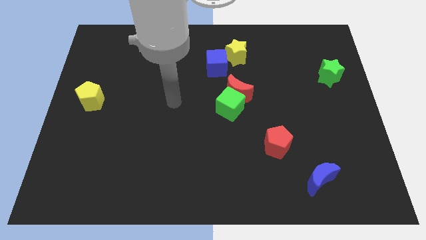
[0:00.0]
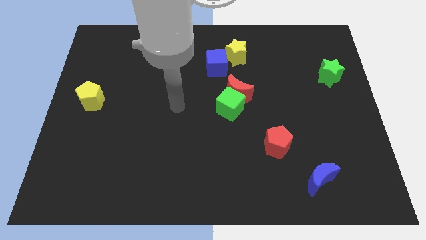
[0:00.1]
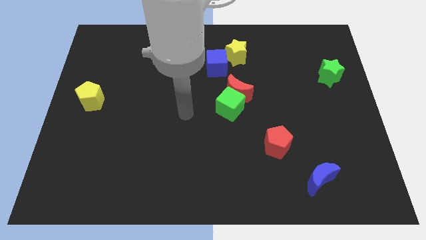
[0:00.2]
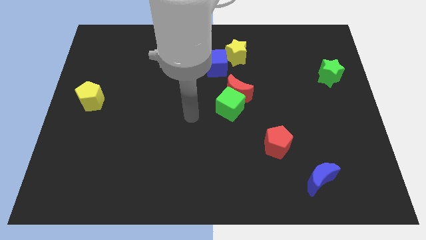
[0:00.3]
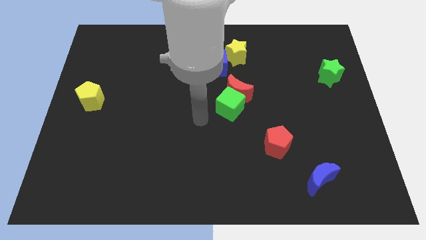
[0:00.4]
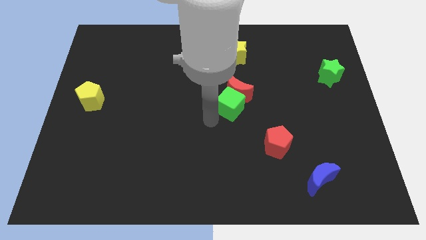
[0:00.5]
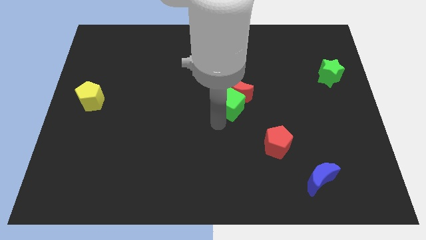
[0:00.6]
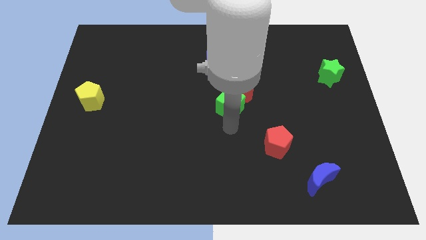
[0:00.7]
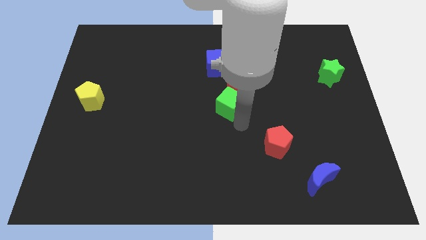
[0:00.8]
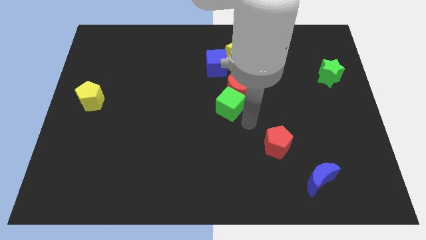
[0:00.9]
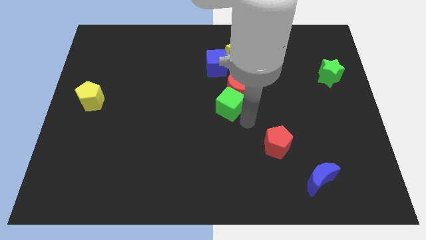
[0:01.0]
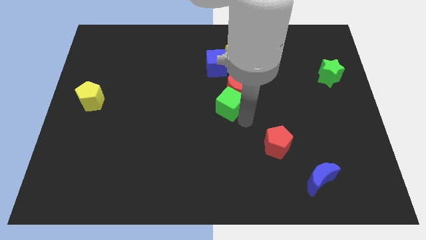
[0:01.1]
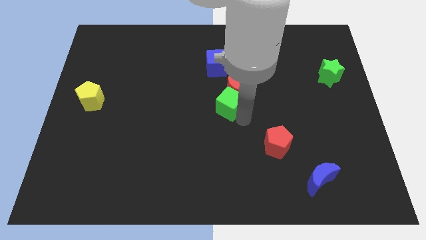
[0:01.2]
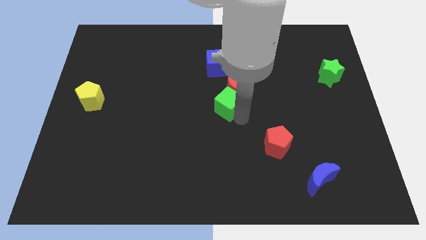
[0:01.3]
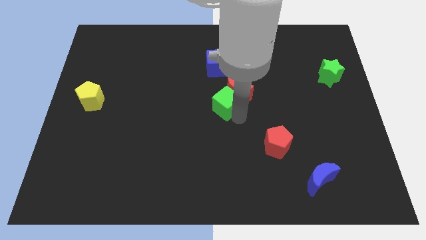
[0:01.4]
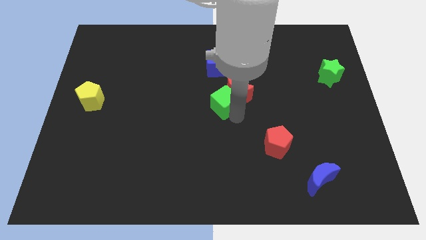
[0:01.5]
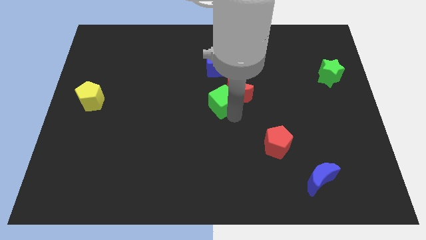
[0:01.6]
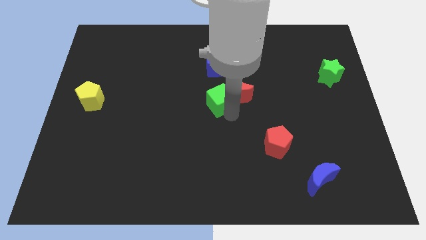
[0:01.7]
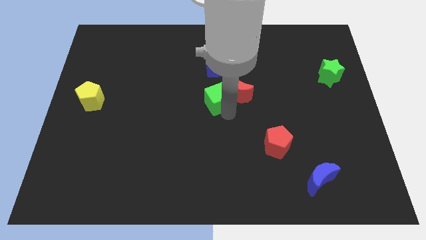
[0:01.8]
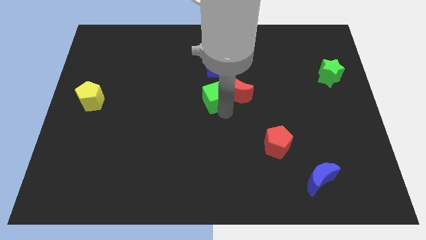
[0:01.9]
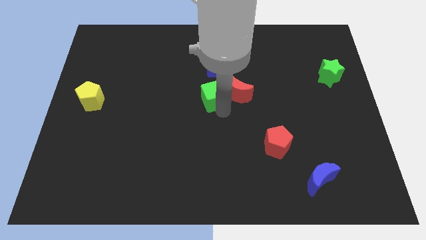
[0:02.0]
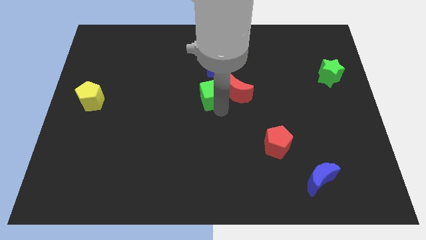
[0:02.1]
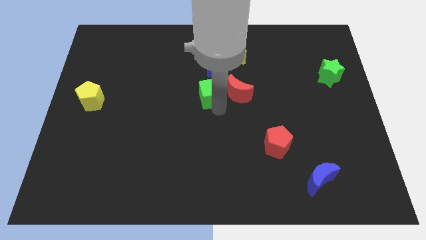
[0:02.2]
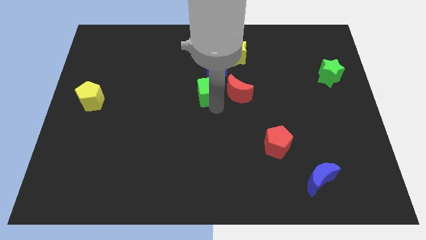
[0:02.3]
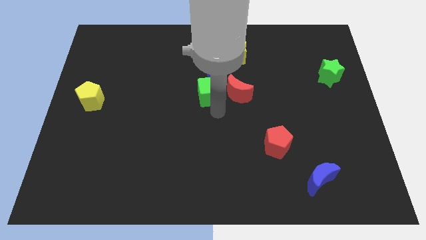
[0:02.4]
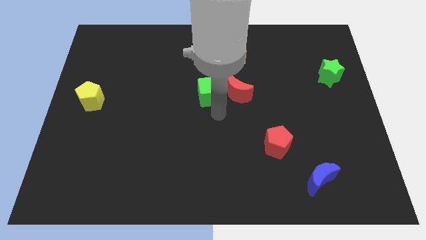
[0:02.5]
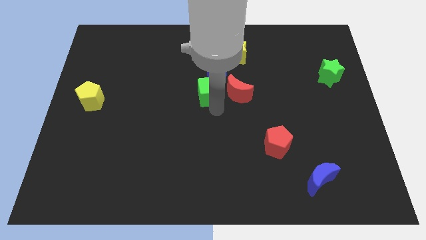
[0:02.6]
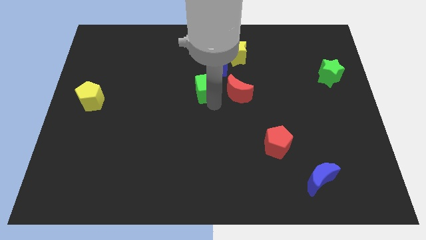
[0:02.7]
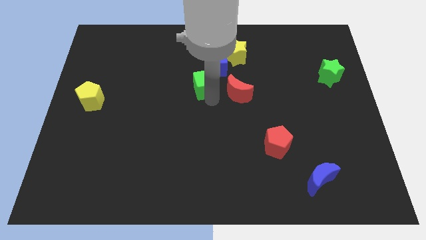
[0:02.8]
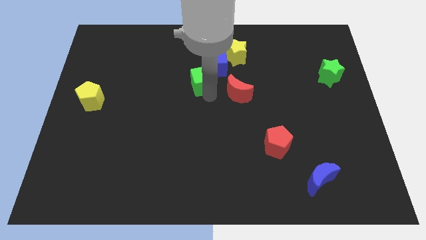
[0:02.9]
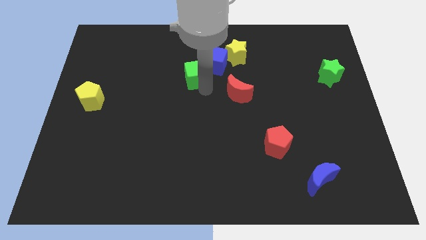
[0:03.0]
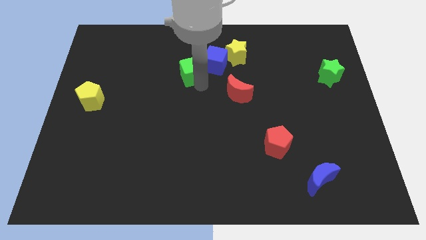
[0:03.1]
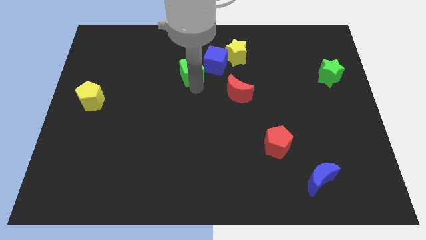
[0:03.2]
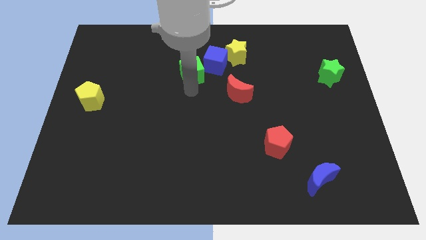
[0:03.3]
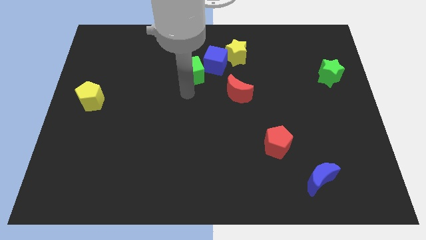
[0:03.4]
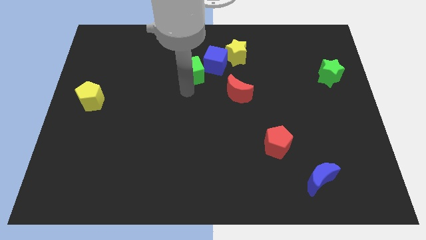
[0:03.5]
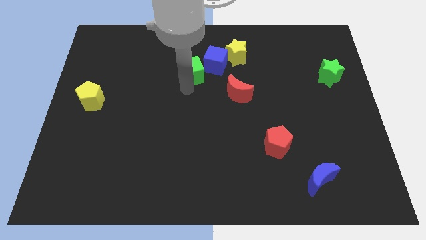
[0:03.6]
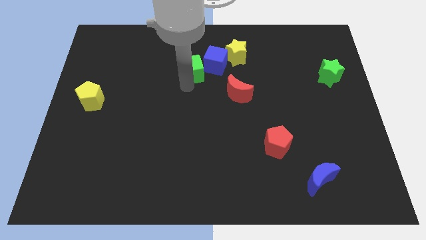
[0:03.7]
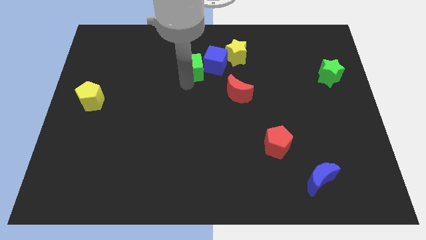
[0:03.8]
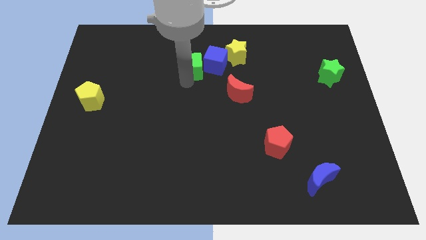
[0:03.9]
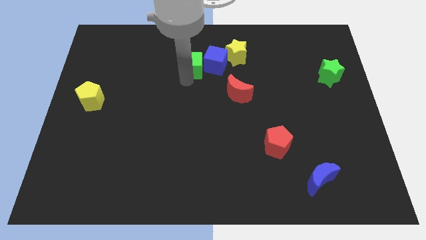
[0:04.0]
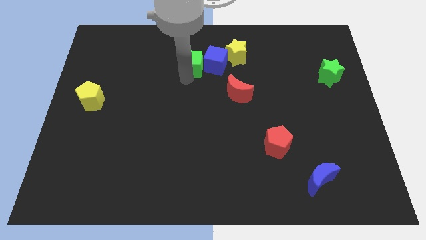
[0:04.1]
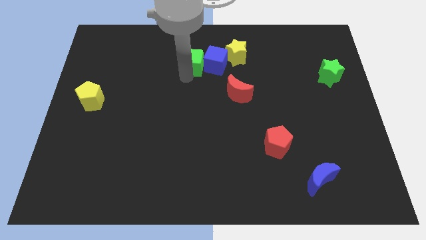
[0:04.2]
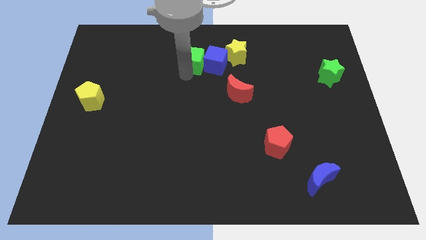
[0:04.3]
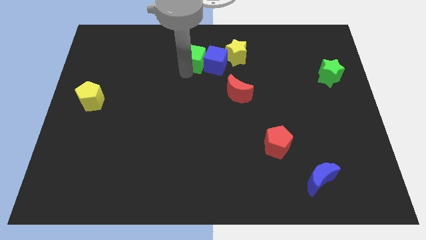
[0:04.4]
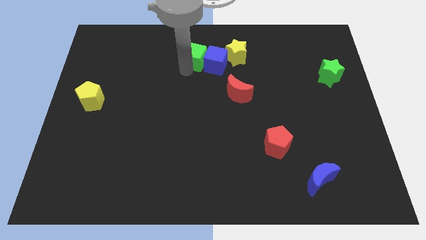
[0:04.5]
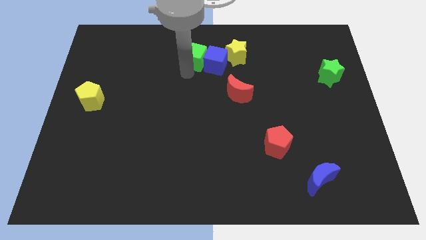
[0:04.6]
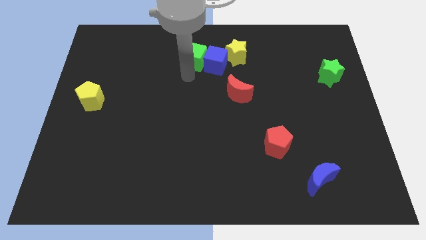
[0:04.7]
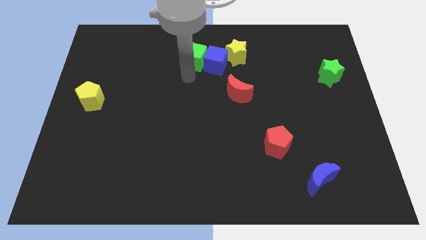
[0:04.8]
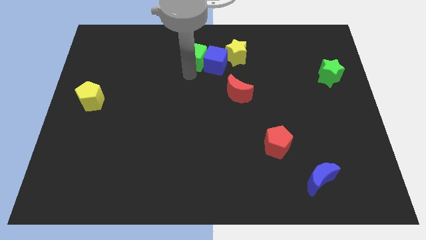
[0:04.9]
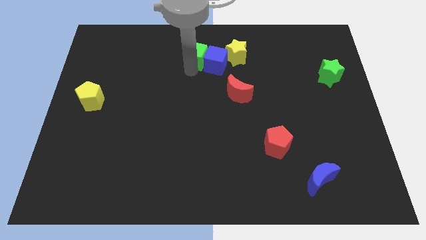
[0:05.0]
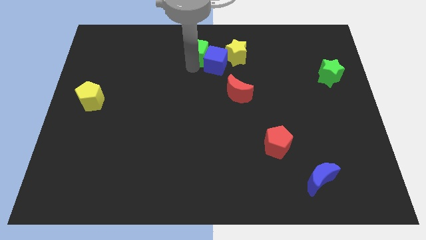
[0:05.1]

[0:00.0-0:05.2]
push the green cube to the top

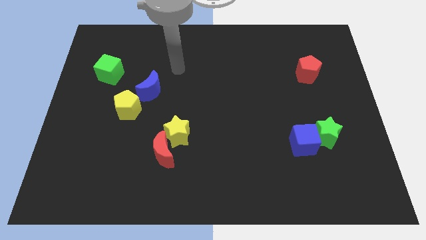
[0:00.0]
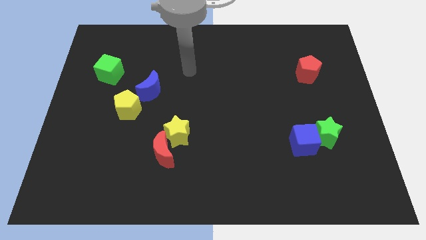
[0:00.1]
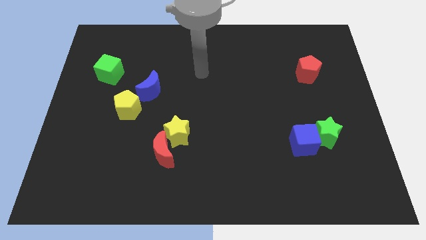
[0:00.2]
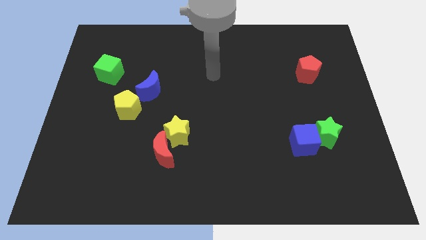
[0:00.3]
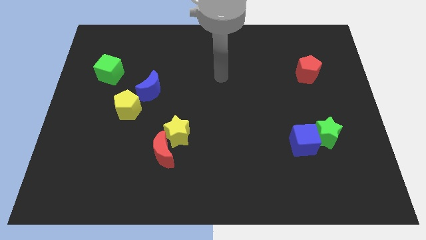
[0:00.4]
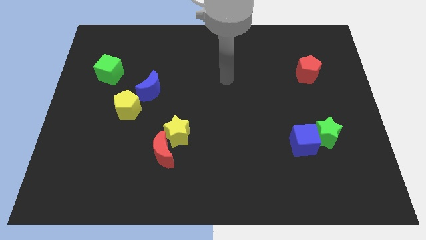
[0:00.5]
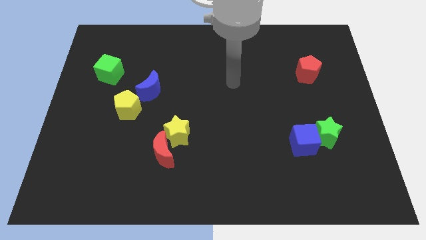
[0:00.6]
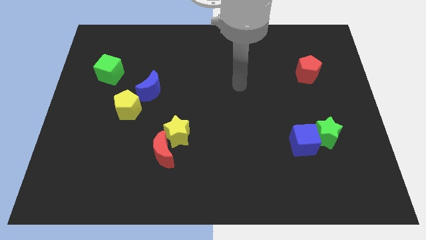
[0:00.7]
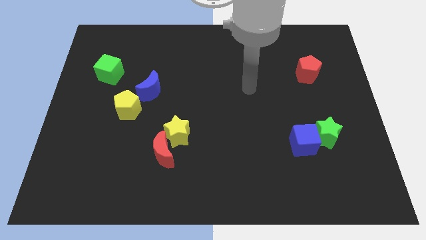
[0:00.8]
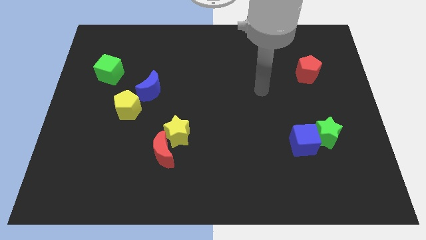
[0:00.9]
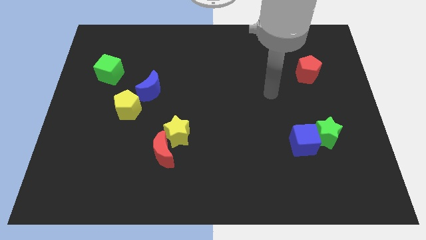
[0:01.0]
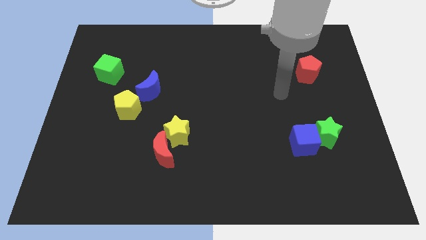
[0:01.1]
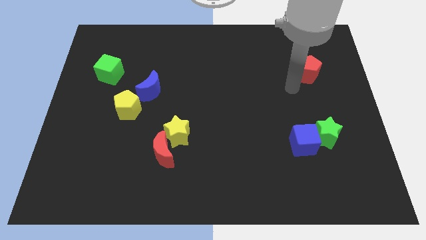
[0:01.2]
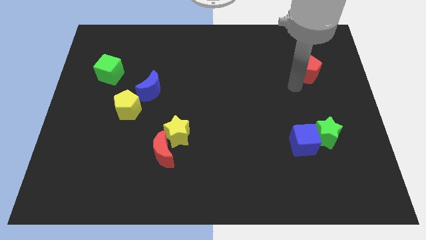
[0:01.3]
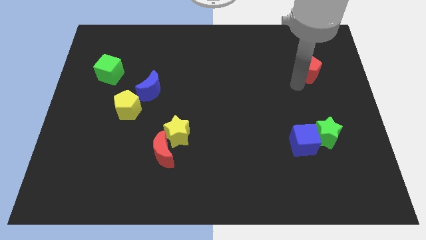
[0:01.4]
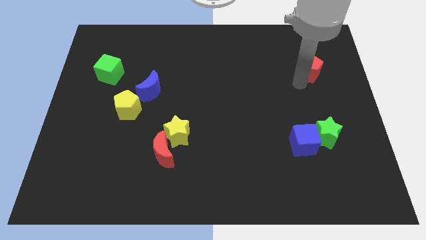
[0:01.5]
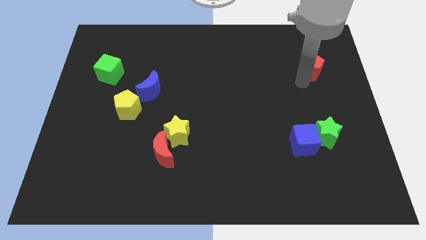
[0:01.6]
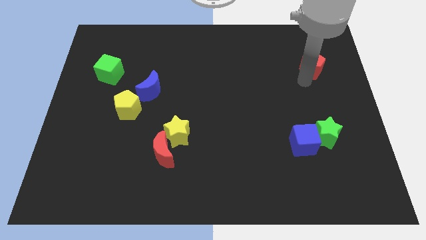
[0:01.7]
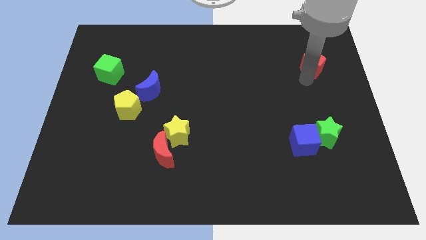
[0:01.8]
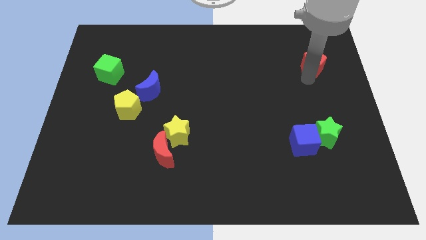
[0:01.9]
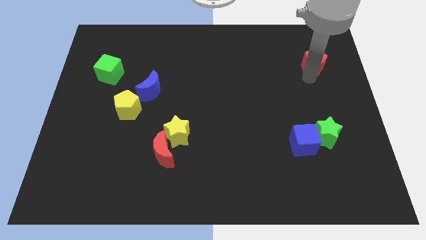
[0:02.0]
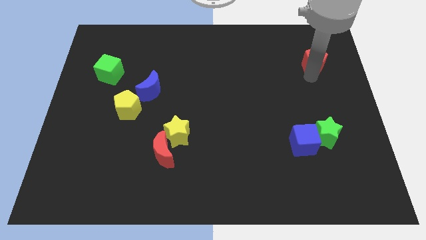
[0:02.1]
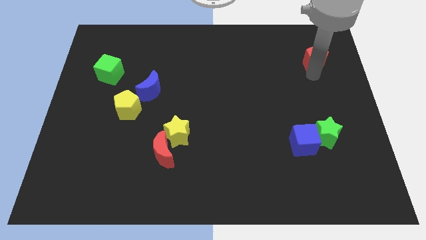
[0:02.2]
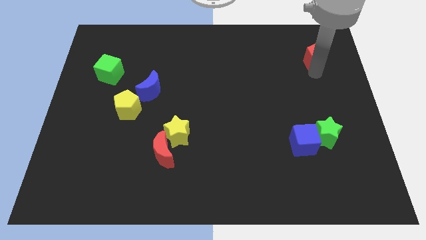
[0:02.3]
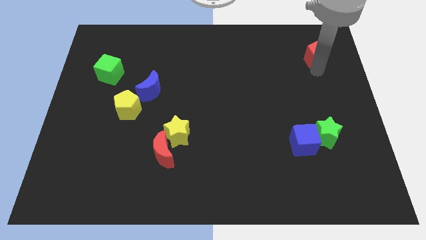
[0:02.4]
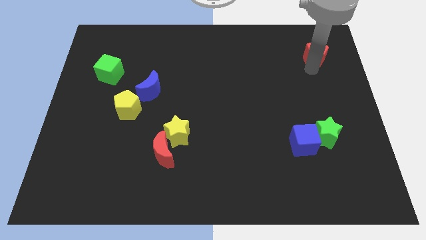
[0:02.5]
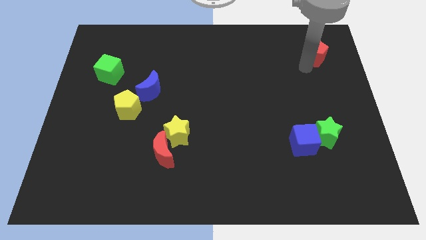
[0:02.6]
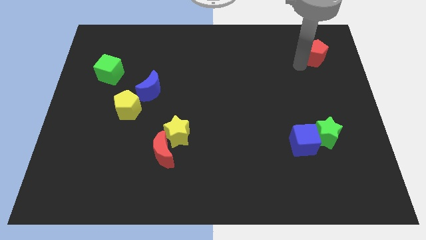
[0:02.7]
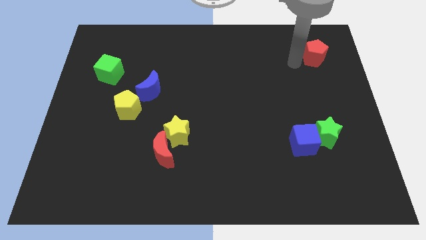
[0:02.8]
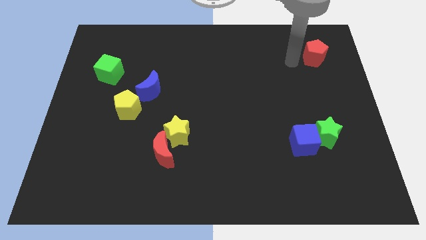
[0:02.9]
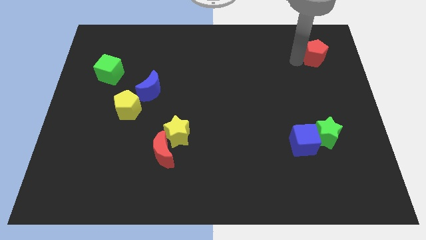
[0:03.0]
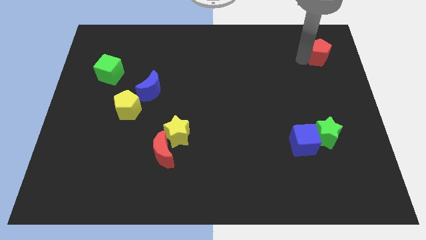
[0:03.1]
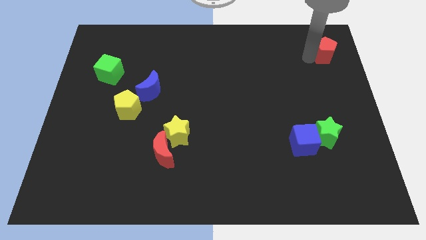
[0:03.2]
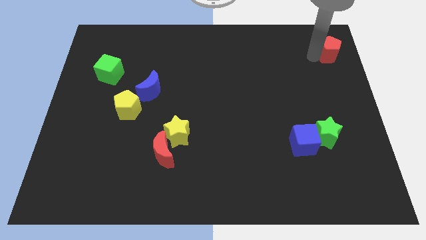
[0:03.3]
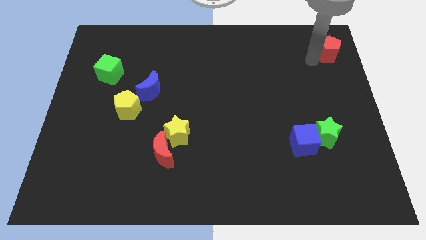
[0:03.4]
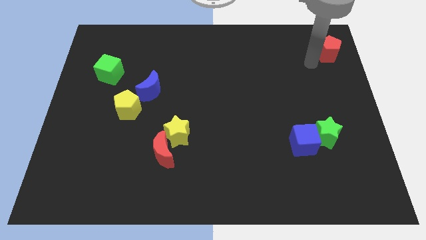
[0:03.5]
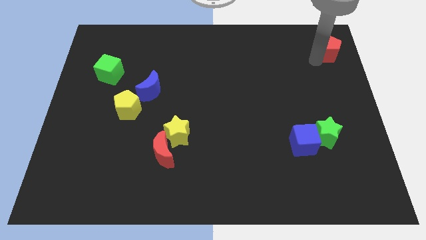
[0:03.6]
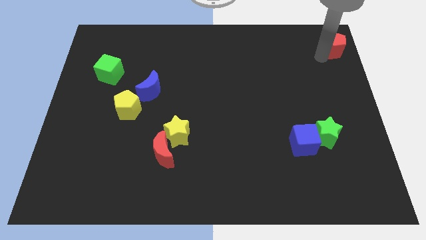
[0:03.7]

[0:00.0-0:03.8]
put the red pentagon to the top right
